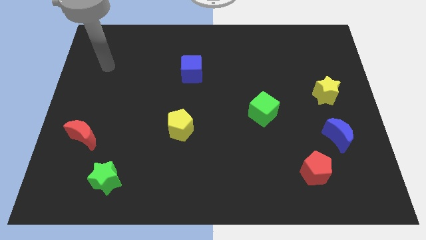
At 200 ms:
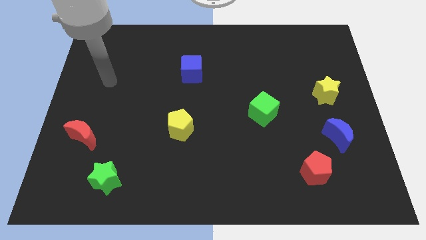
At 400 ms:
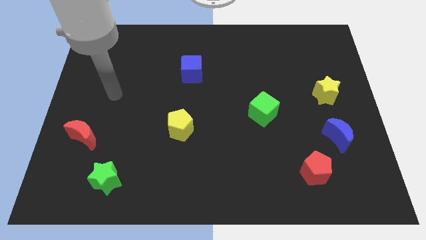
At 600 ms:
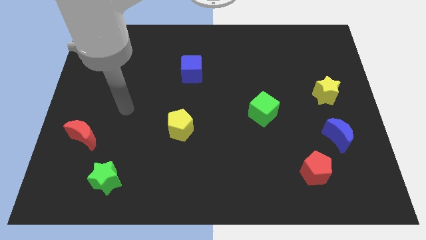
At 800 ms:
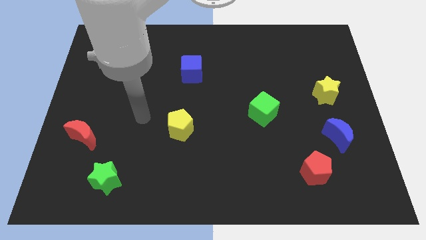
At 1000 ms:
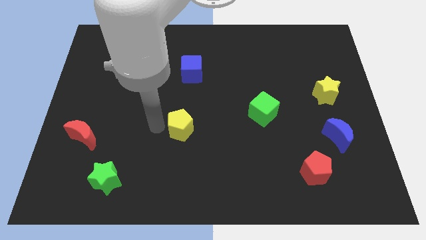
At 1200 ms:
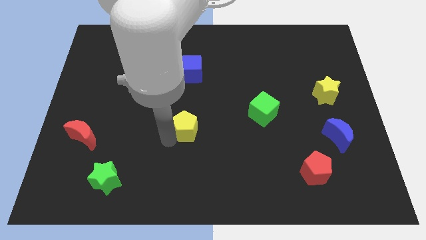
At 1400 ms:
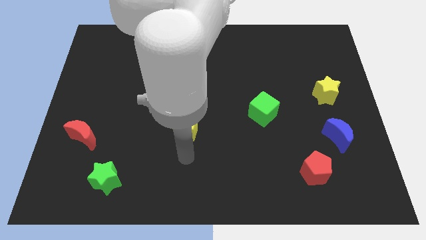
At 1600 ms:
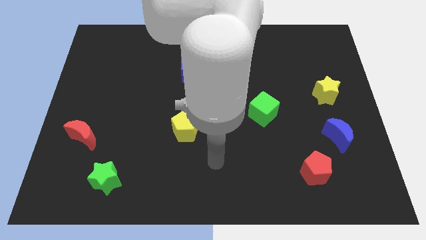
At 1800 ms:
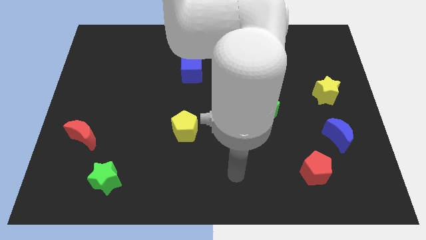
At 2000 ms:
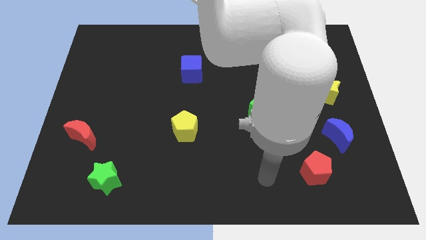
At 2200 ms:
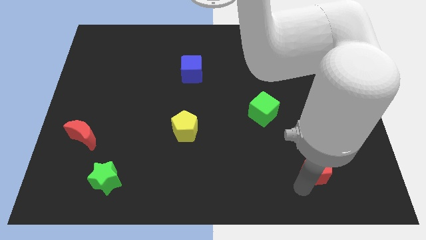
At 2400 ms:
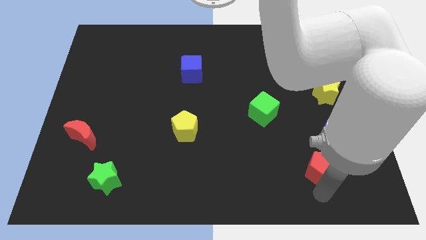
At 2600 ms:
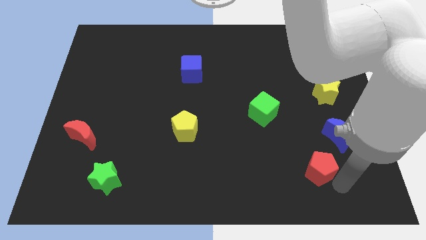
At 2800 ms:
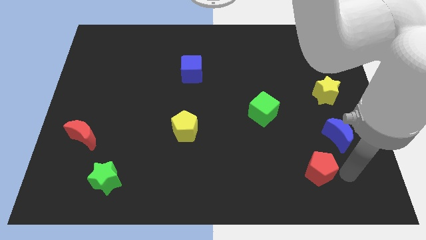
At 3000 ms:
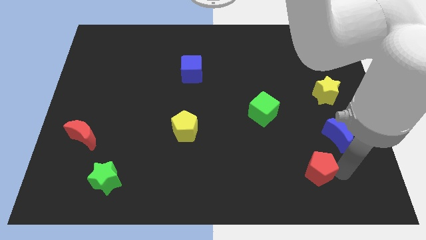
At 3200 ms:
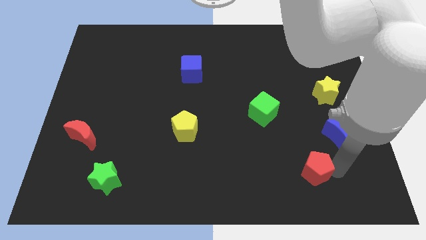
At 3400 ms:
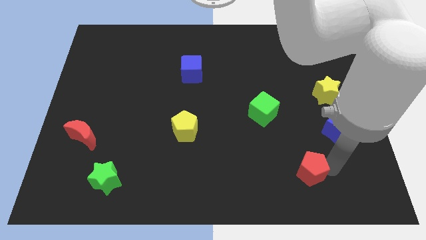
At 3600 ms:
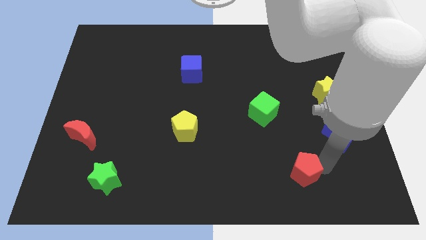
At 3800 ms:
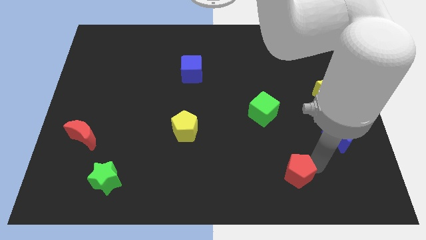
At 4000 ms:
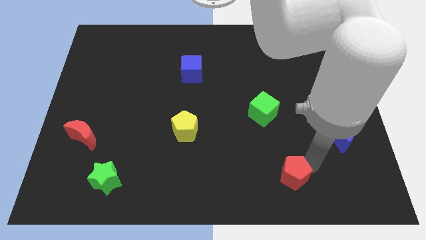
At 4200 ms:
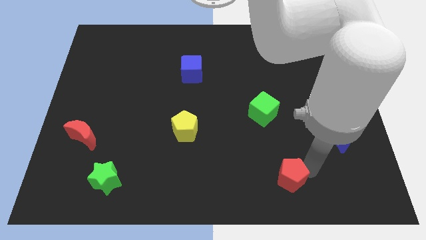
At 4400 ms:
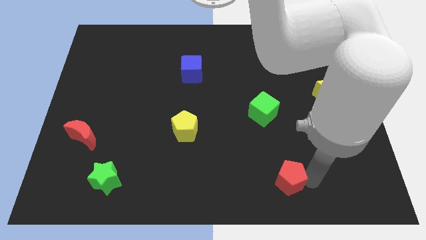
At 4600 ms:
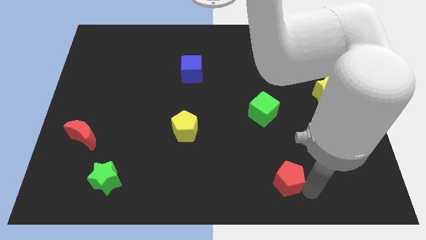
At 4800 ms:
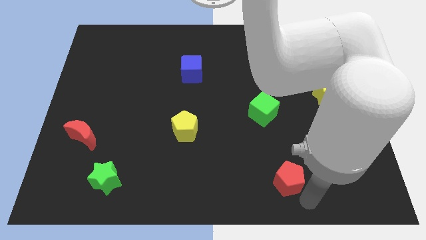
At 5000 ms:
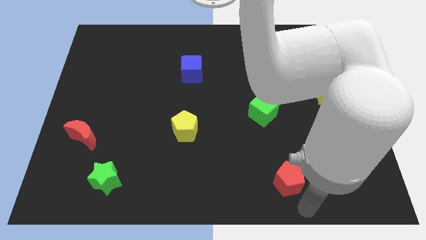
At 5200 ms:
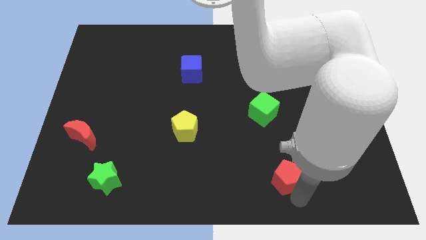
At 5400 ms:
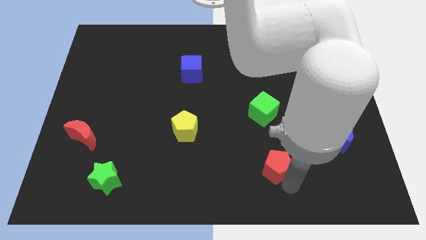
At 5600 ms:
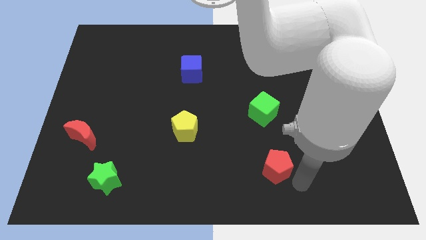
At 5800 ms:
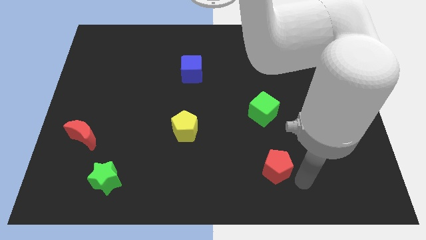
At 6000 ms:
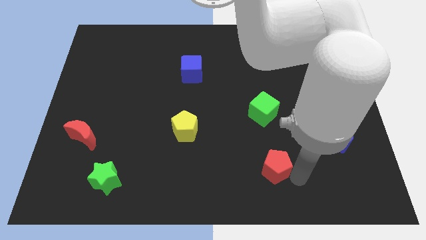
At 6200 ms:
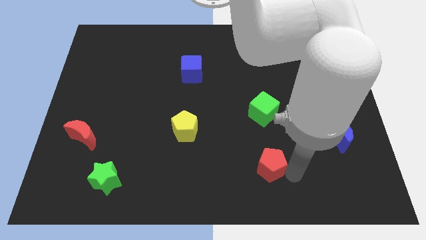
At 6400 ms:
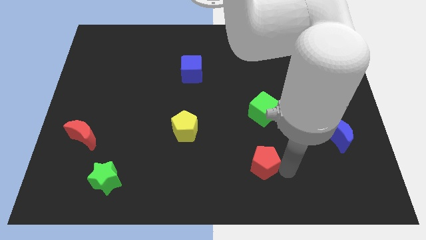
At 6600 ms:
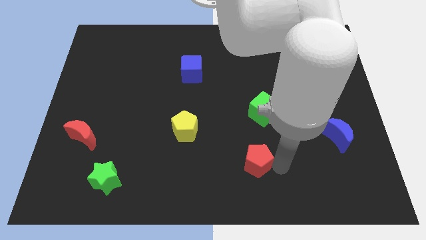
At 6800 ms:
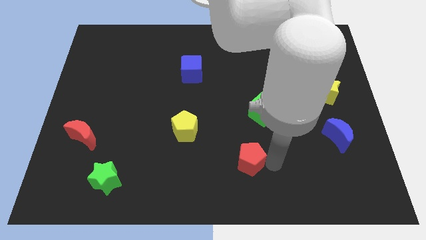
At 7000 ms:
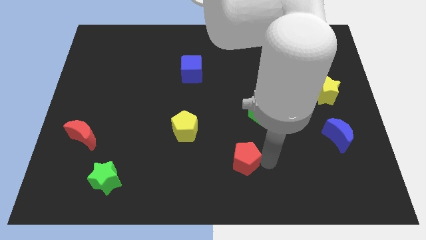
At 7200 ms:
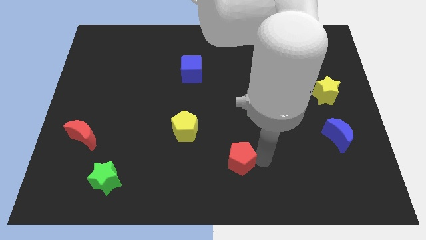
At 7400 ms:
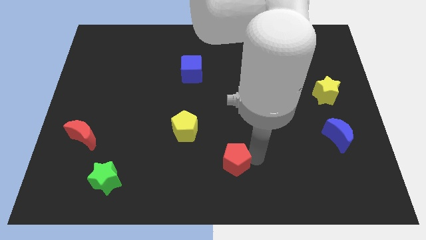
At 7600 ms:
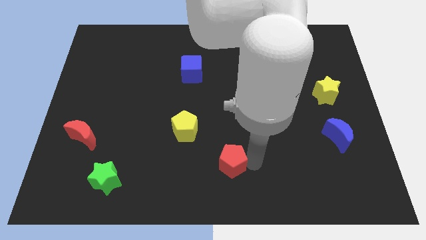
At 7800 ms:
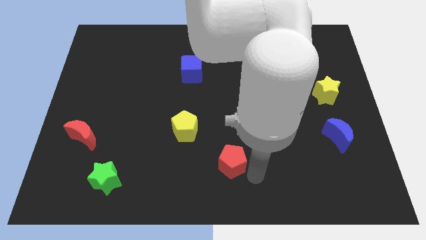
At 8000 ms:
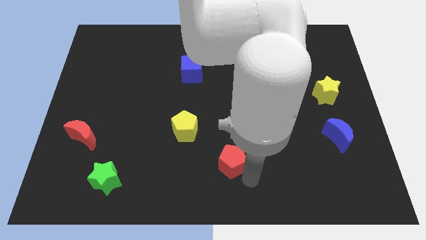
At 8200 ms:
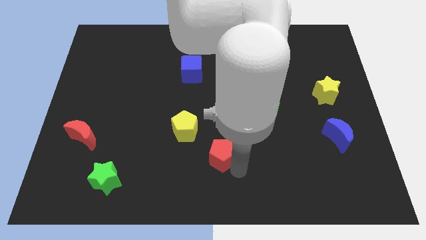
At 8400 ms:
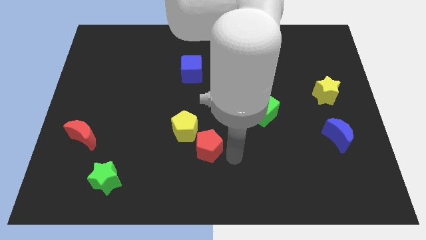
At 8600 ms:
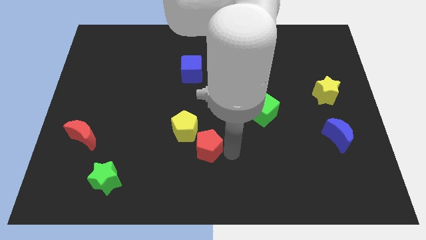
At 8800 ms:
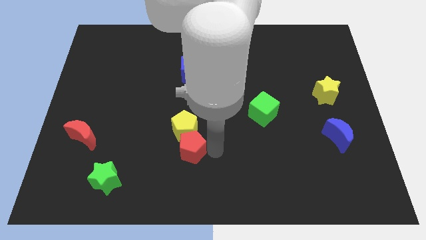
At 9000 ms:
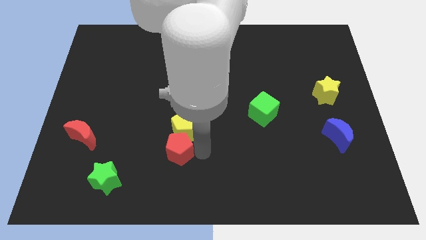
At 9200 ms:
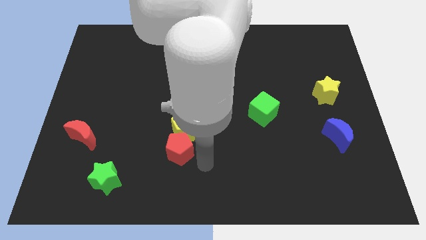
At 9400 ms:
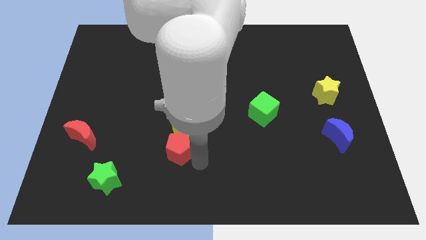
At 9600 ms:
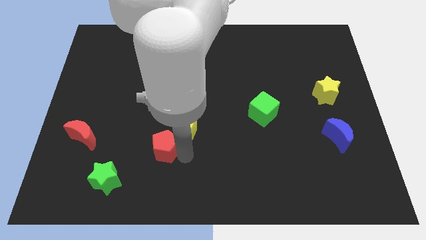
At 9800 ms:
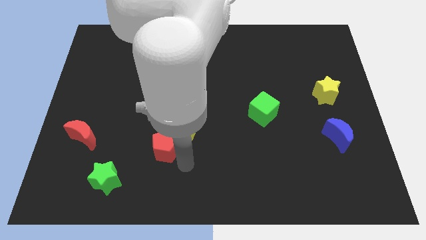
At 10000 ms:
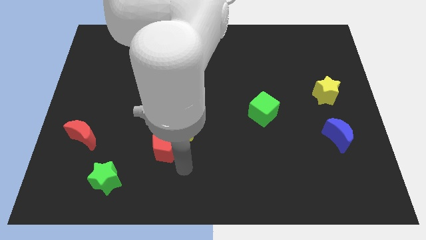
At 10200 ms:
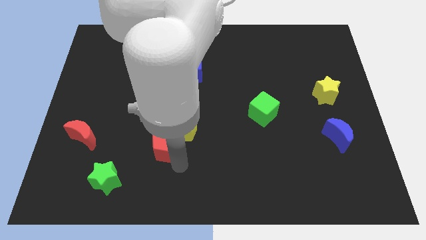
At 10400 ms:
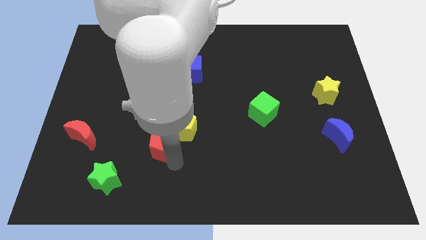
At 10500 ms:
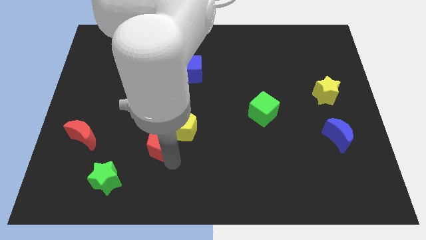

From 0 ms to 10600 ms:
push the red pentagon to the left side of the yellow pentagon

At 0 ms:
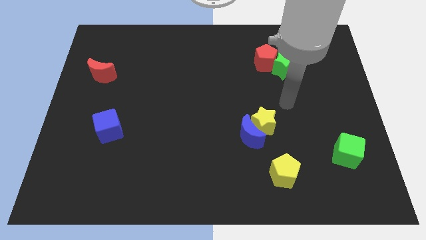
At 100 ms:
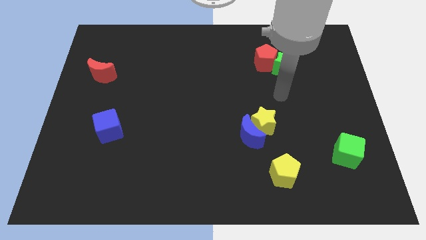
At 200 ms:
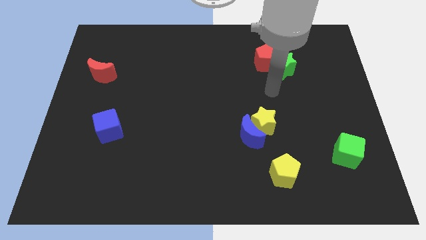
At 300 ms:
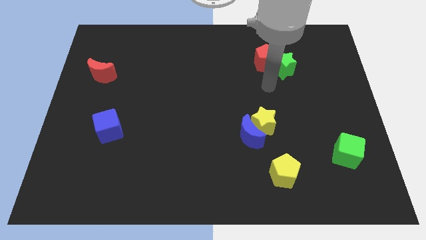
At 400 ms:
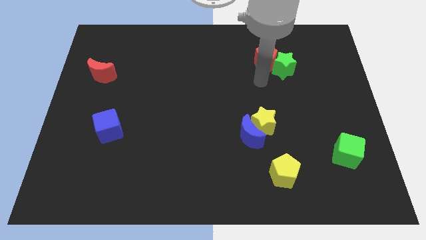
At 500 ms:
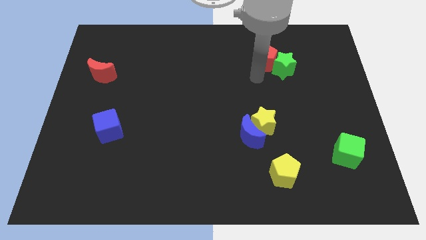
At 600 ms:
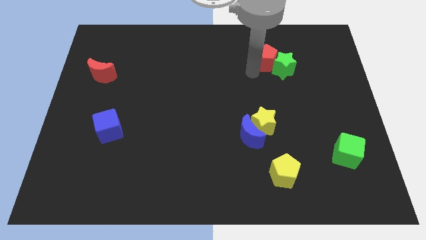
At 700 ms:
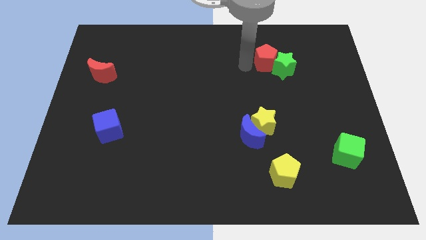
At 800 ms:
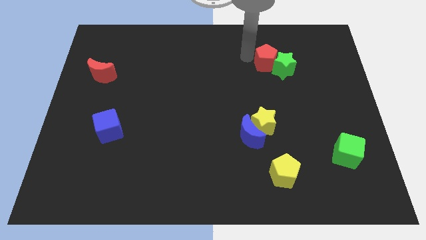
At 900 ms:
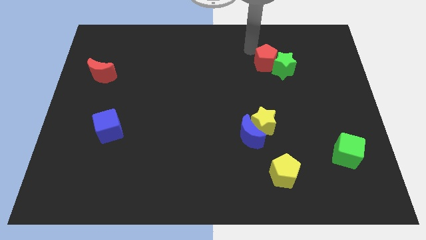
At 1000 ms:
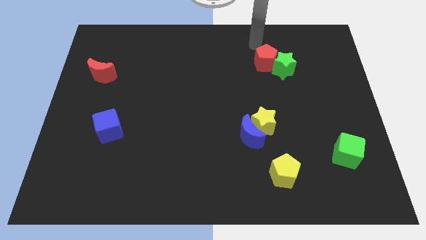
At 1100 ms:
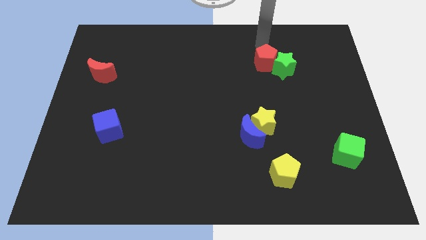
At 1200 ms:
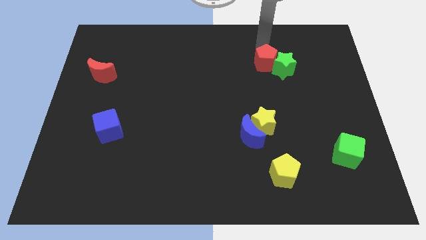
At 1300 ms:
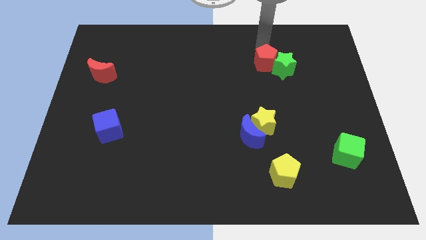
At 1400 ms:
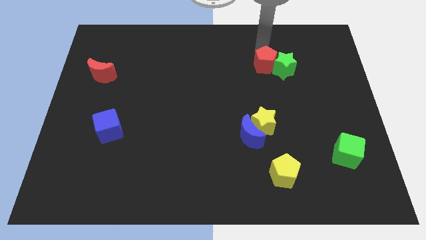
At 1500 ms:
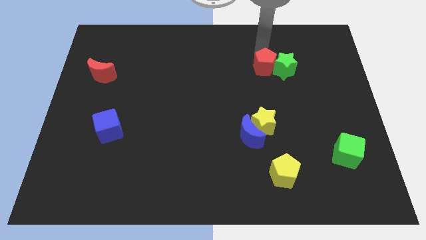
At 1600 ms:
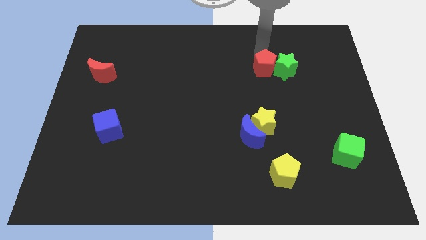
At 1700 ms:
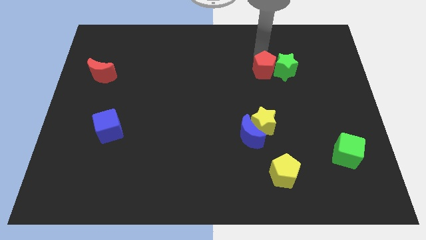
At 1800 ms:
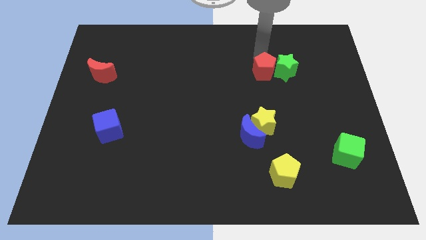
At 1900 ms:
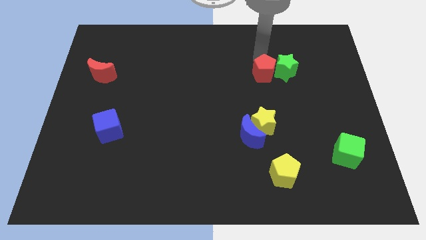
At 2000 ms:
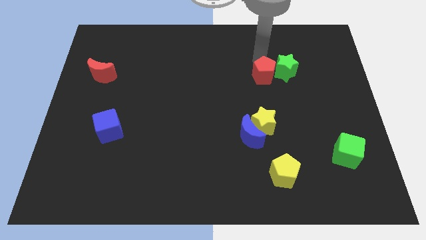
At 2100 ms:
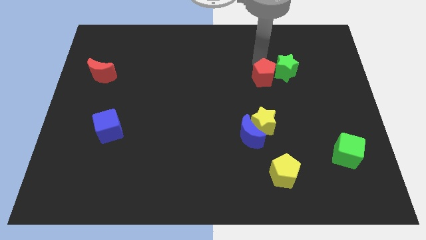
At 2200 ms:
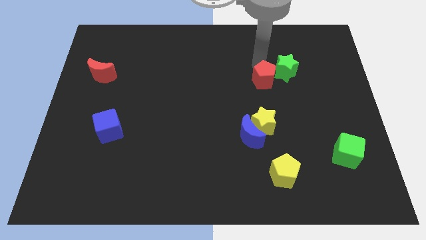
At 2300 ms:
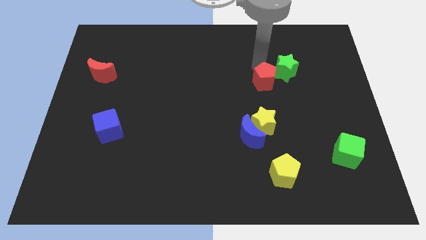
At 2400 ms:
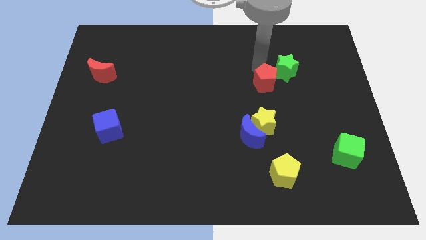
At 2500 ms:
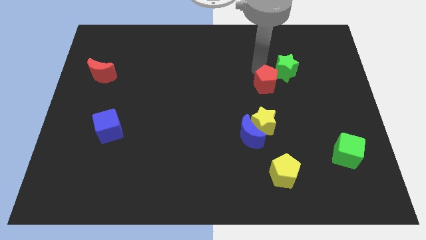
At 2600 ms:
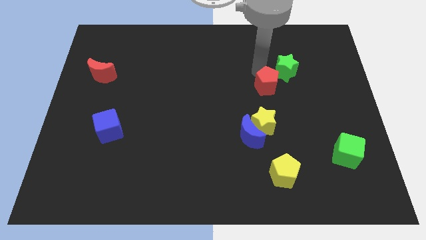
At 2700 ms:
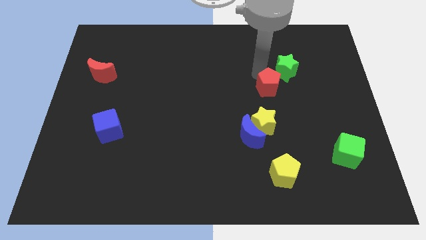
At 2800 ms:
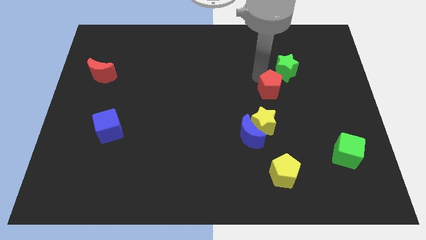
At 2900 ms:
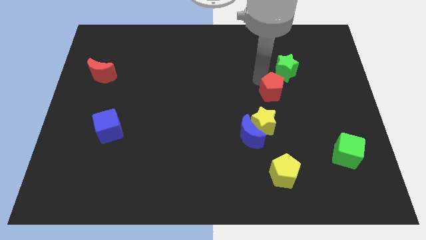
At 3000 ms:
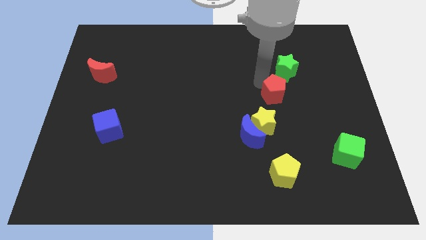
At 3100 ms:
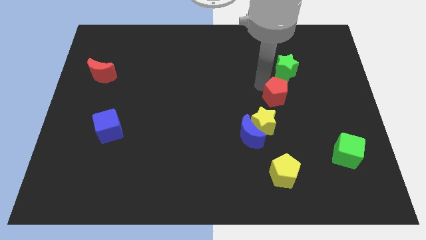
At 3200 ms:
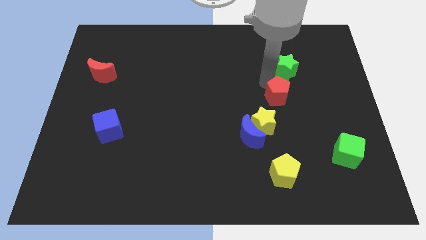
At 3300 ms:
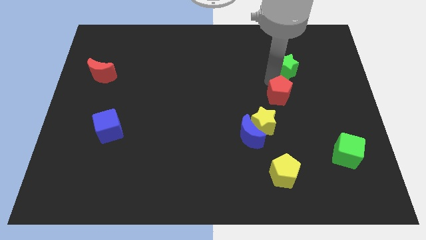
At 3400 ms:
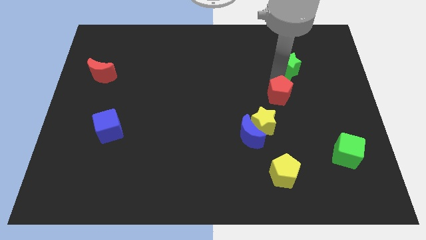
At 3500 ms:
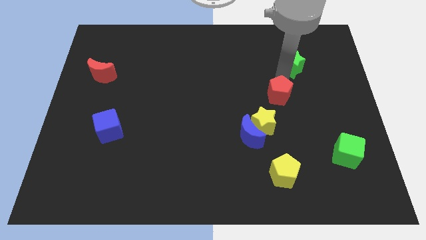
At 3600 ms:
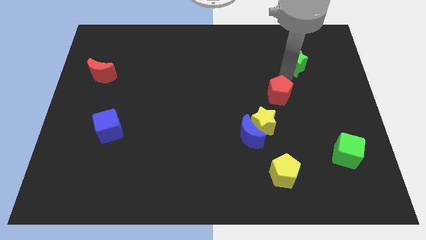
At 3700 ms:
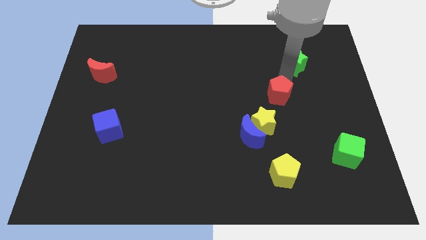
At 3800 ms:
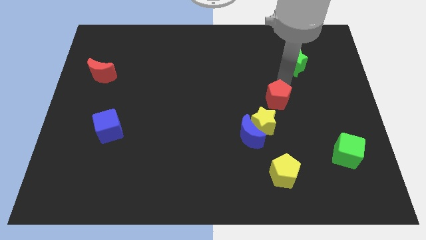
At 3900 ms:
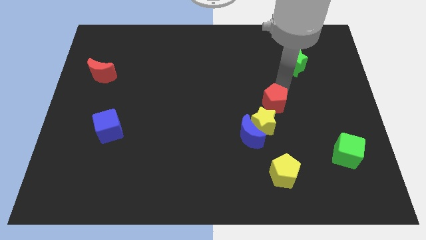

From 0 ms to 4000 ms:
slide the red pentagon to the top right of the blue moon
